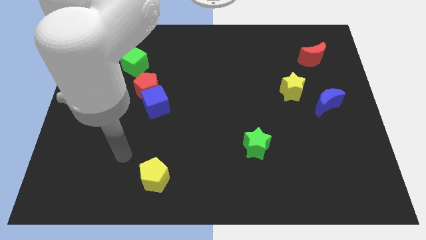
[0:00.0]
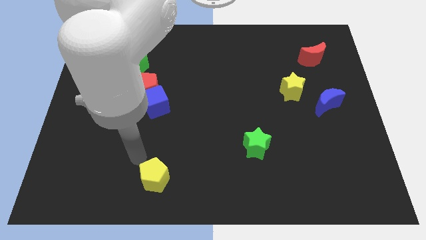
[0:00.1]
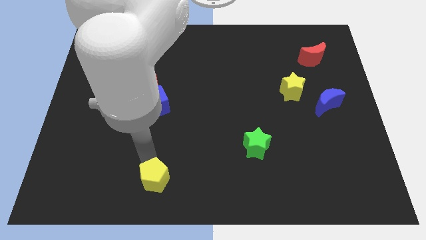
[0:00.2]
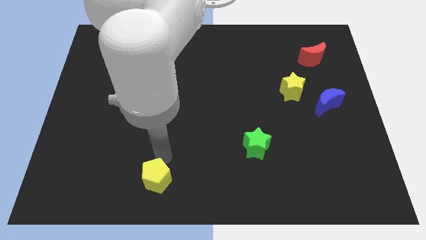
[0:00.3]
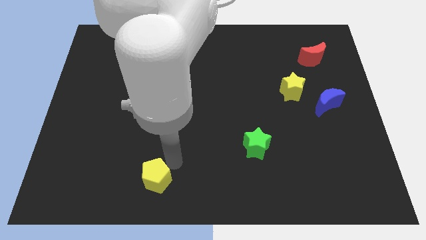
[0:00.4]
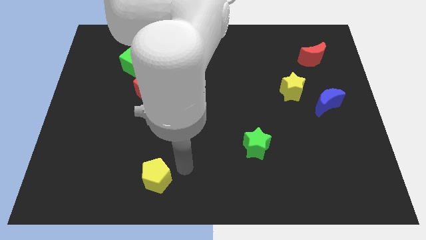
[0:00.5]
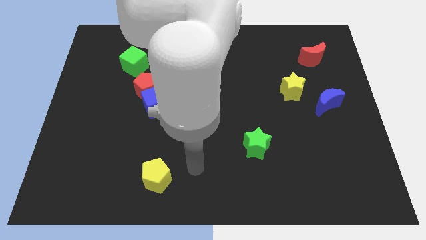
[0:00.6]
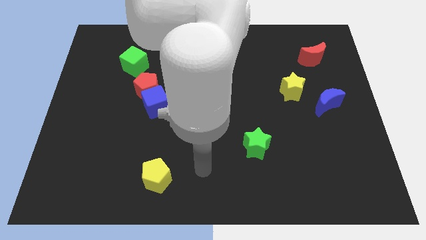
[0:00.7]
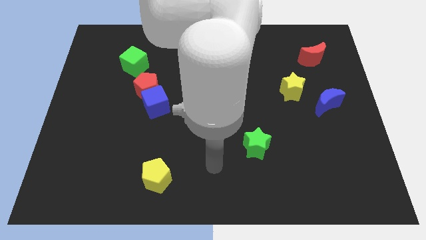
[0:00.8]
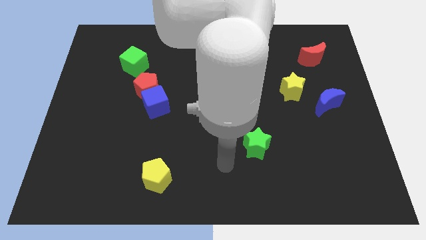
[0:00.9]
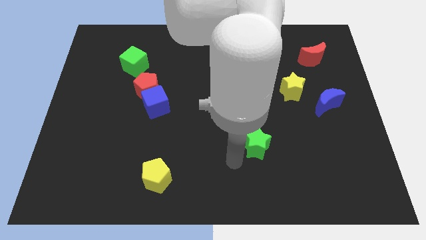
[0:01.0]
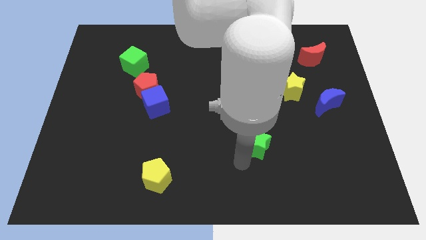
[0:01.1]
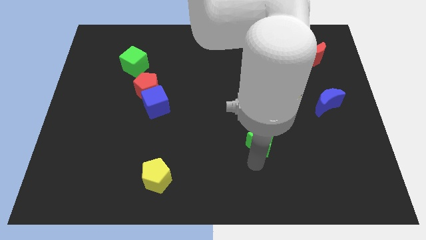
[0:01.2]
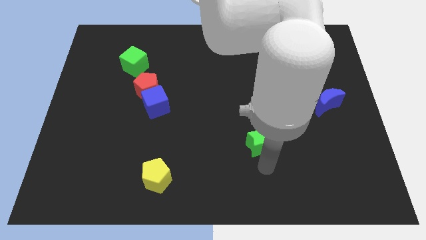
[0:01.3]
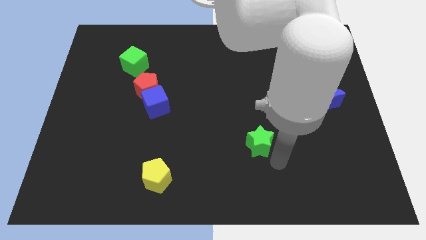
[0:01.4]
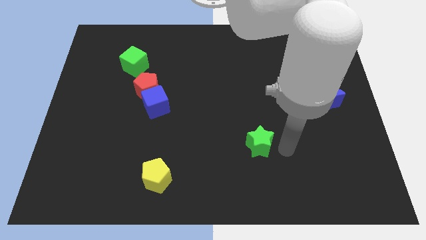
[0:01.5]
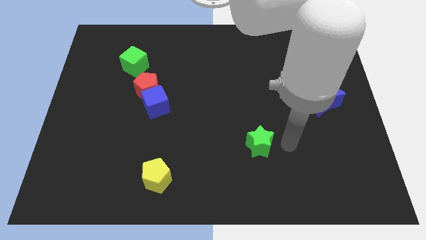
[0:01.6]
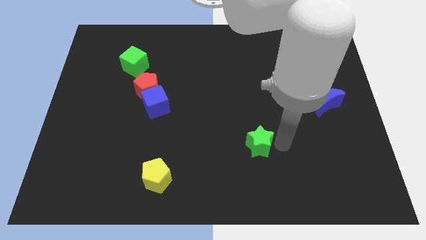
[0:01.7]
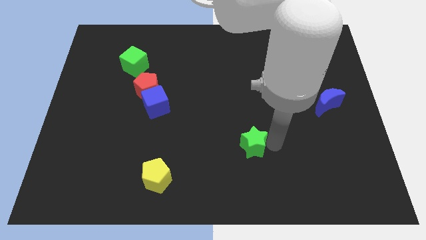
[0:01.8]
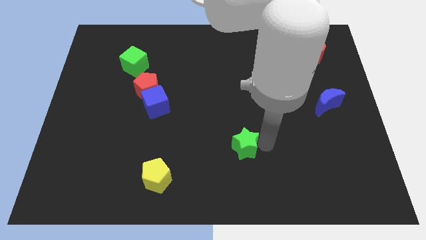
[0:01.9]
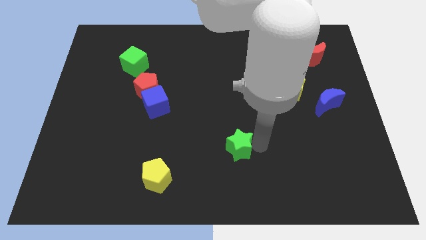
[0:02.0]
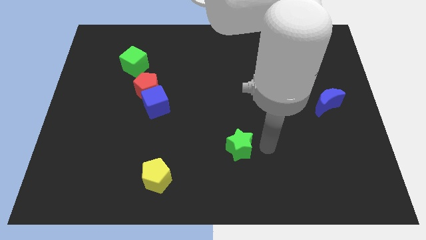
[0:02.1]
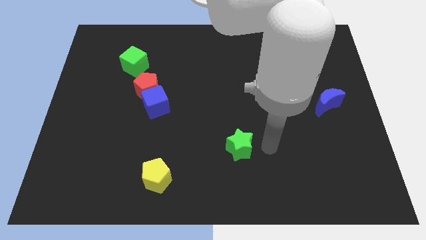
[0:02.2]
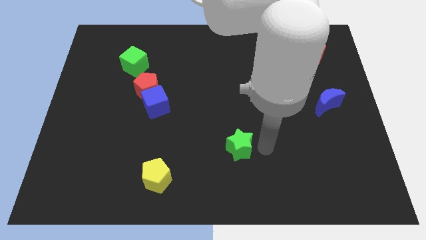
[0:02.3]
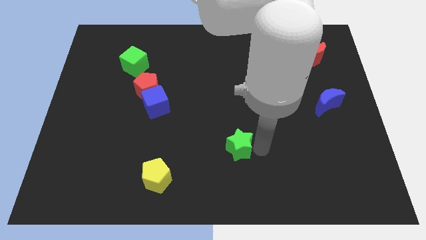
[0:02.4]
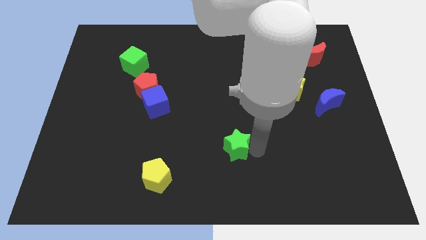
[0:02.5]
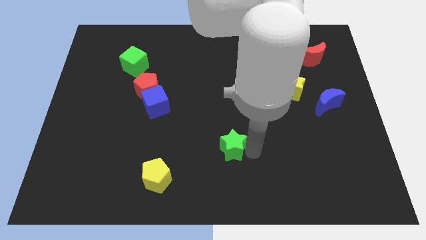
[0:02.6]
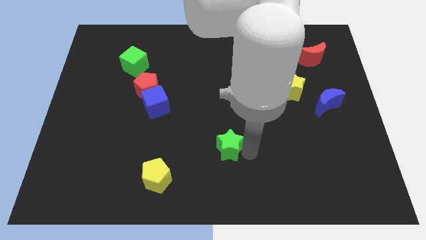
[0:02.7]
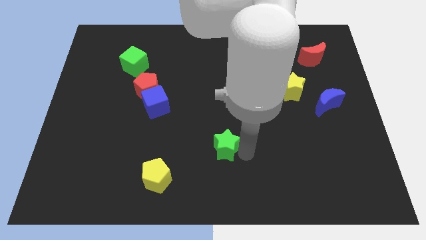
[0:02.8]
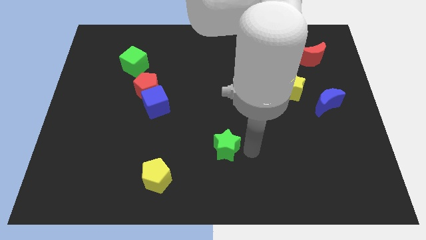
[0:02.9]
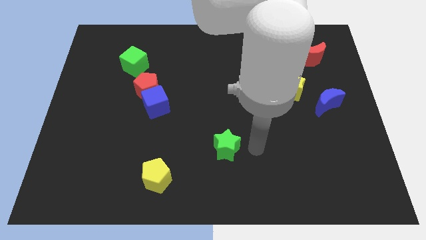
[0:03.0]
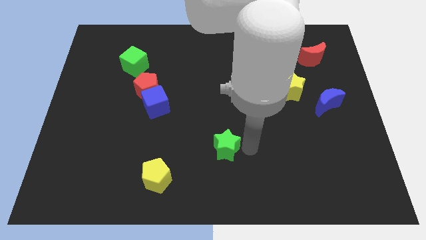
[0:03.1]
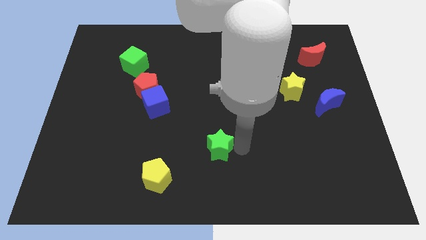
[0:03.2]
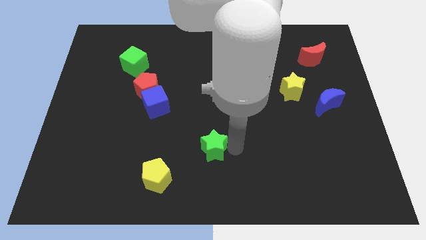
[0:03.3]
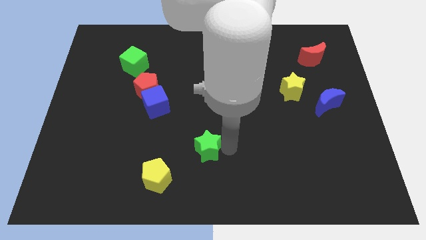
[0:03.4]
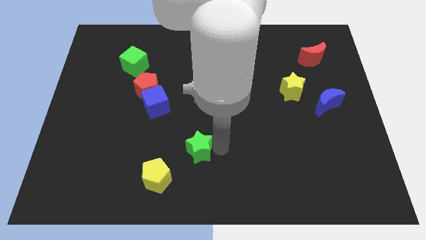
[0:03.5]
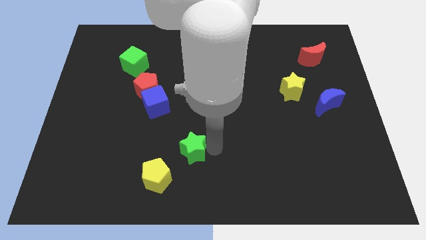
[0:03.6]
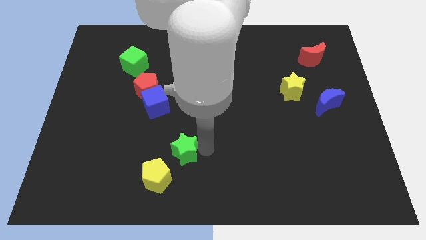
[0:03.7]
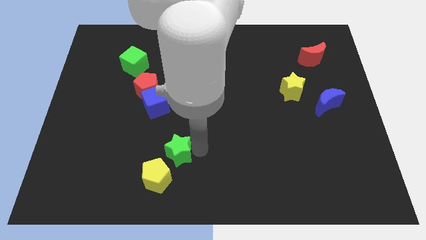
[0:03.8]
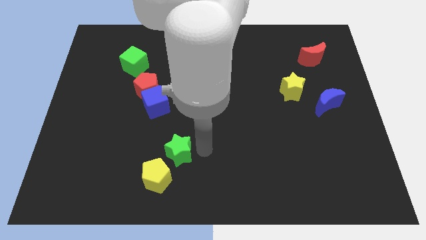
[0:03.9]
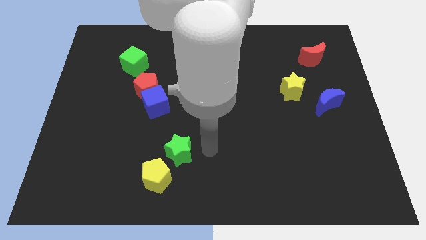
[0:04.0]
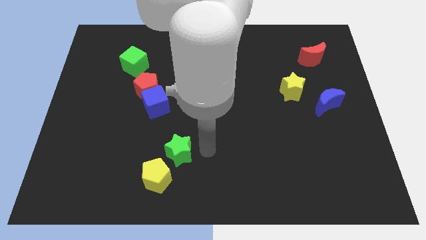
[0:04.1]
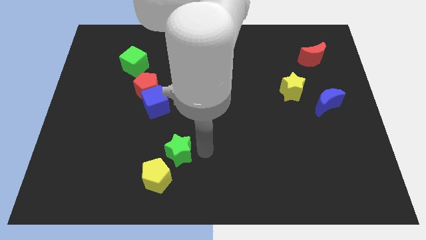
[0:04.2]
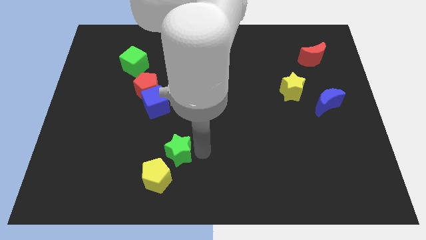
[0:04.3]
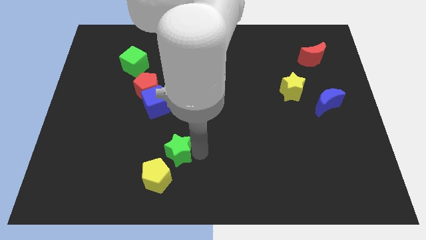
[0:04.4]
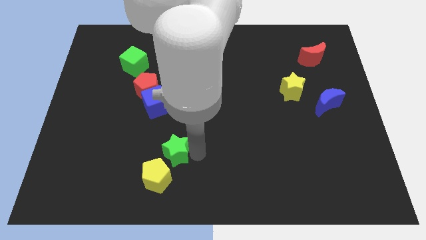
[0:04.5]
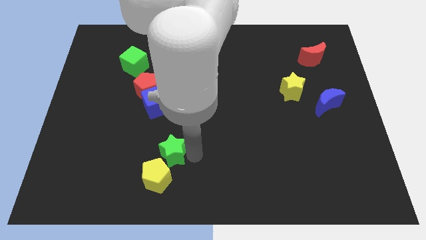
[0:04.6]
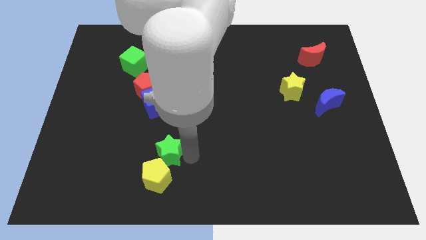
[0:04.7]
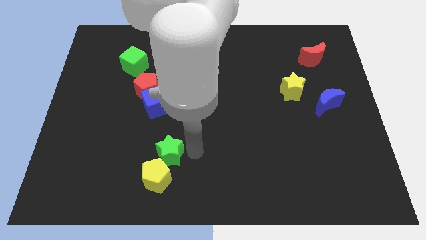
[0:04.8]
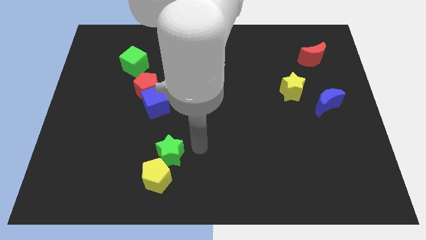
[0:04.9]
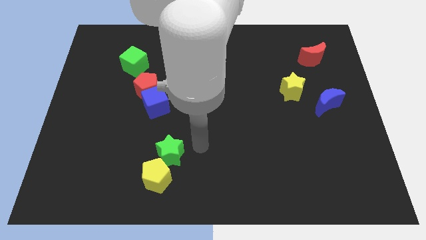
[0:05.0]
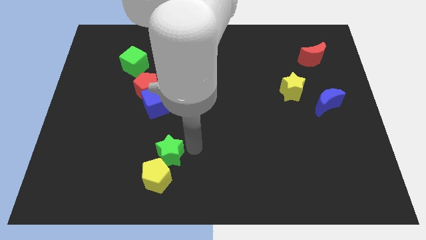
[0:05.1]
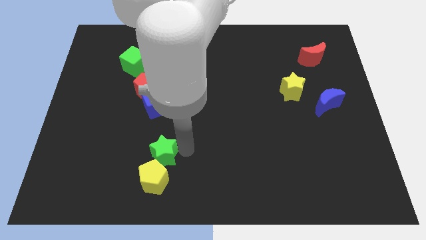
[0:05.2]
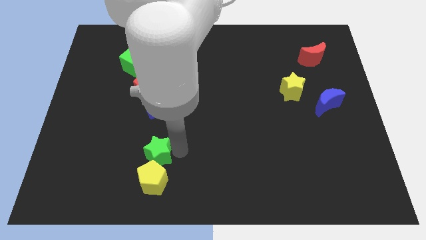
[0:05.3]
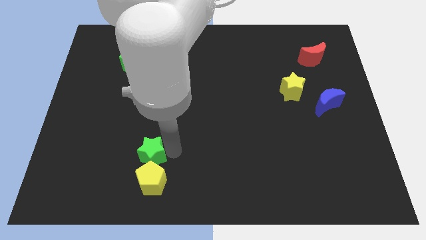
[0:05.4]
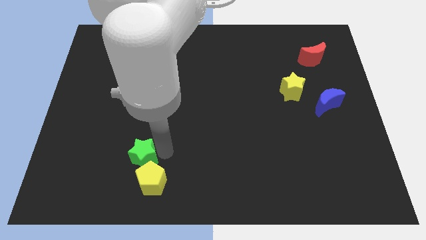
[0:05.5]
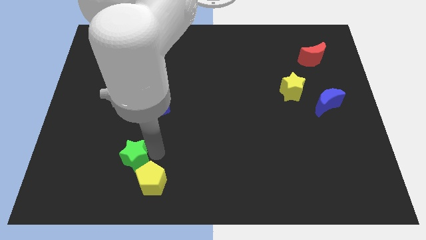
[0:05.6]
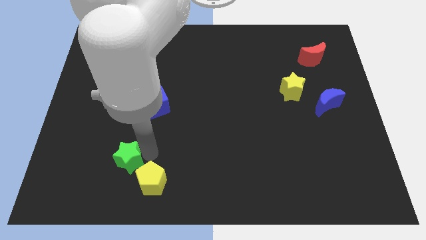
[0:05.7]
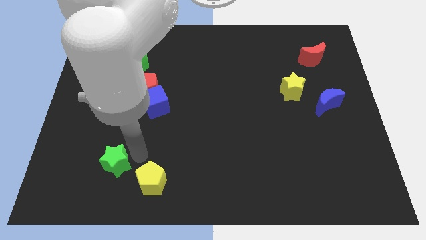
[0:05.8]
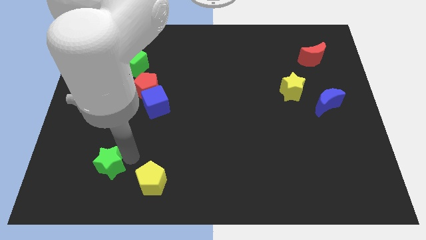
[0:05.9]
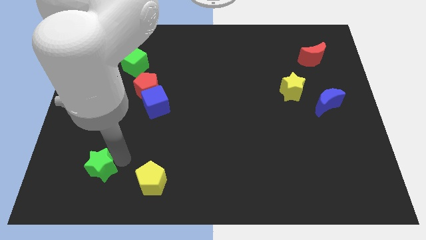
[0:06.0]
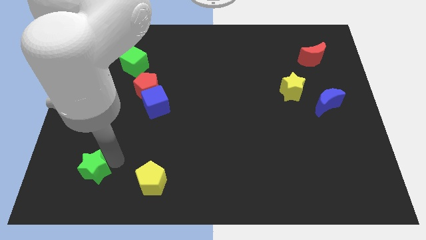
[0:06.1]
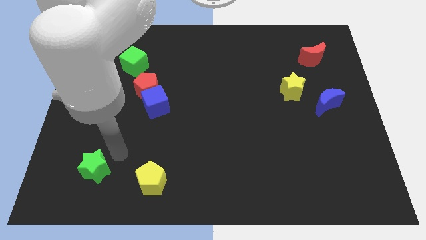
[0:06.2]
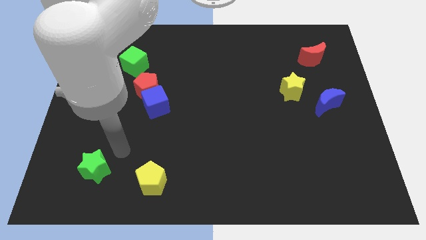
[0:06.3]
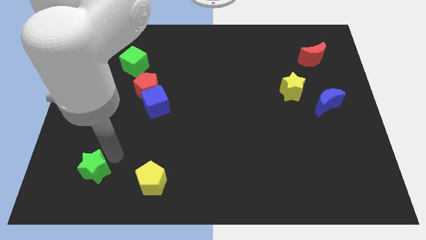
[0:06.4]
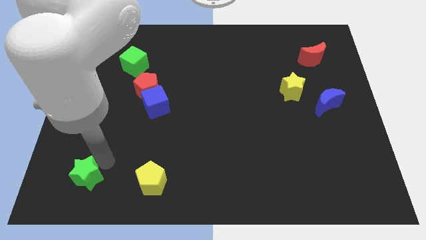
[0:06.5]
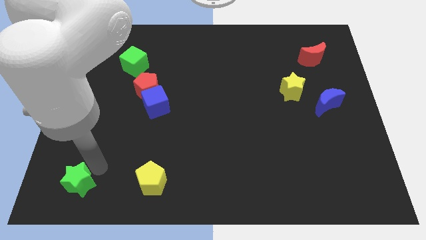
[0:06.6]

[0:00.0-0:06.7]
put the green star to the bottom left corner
